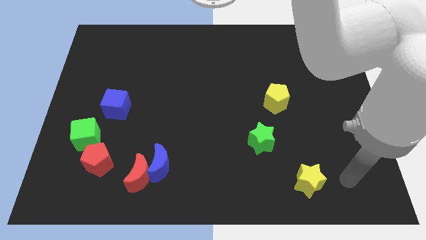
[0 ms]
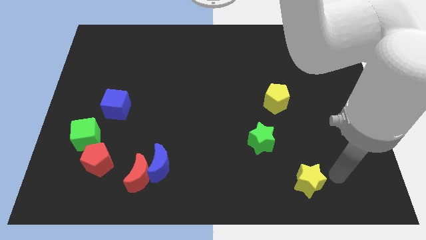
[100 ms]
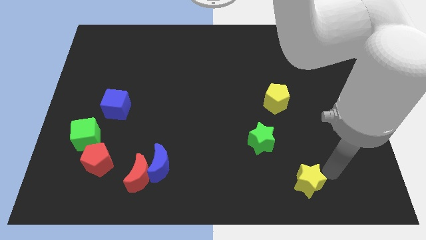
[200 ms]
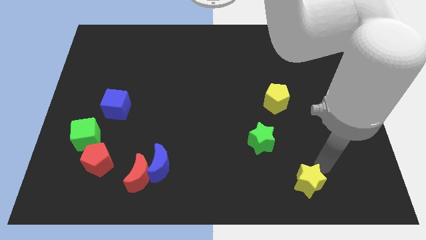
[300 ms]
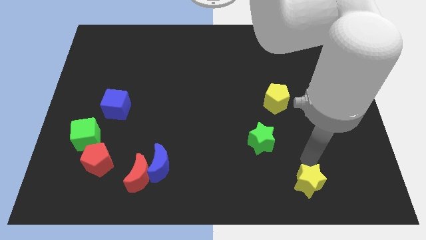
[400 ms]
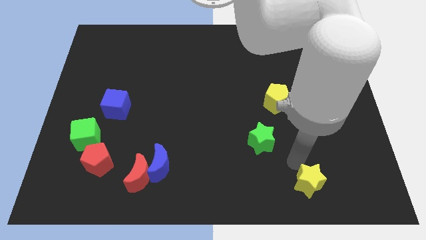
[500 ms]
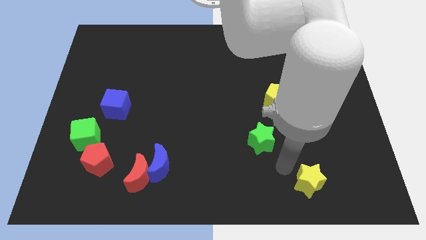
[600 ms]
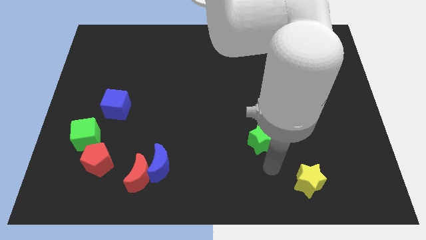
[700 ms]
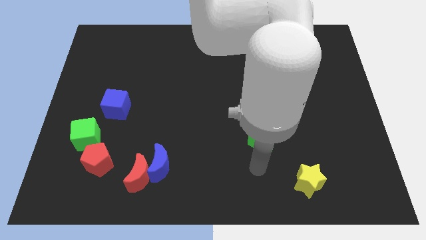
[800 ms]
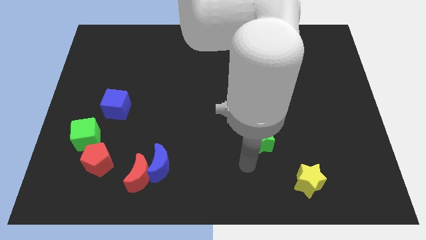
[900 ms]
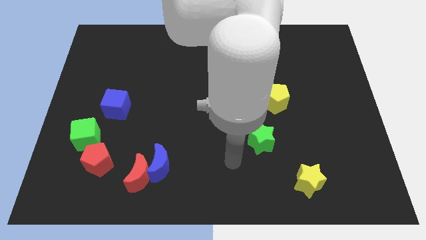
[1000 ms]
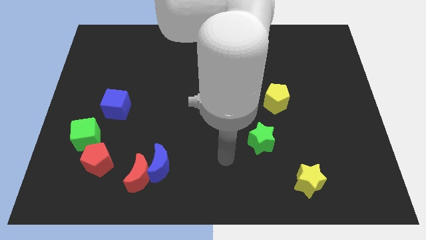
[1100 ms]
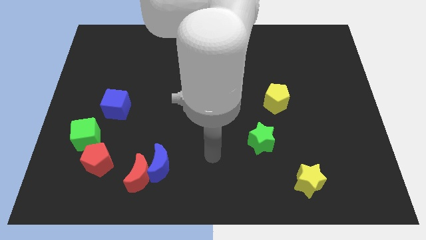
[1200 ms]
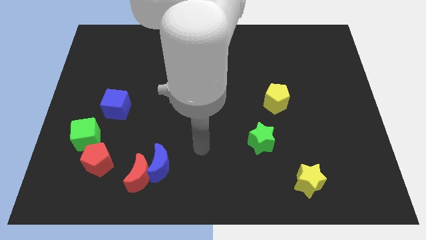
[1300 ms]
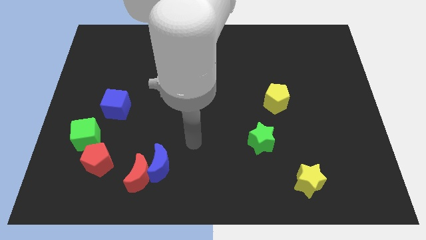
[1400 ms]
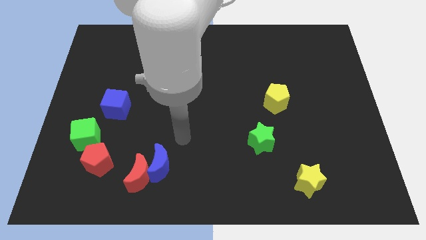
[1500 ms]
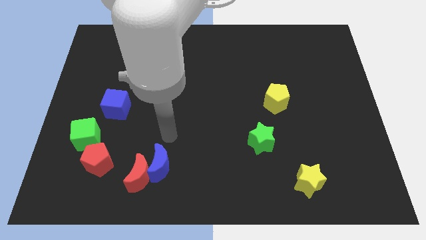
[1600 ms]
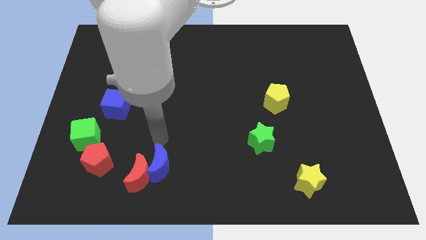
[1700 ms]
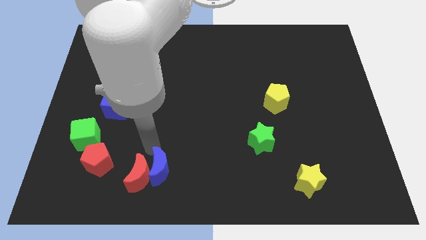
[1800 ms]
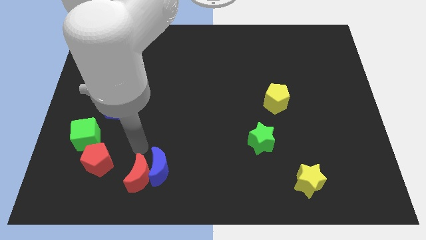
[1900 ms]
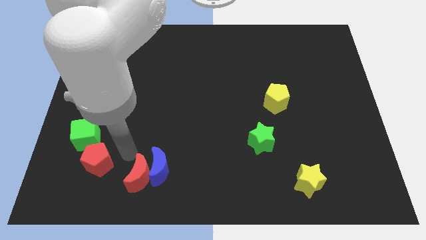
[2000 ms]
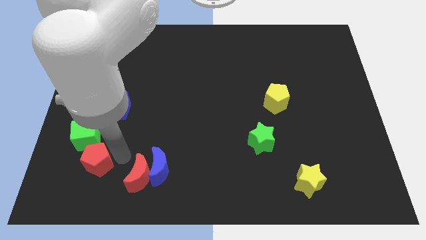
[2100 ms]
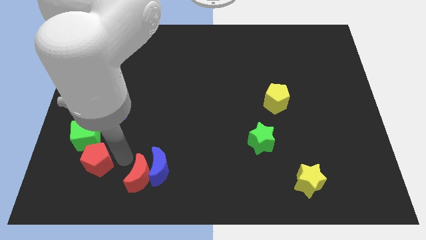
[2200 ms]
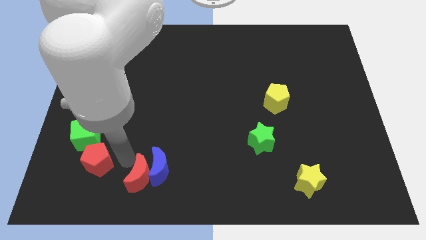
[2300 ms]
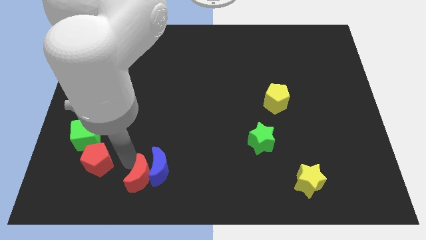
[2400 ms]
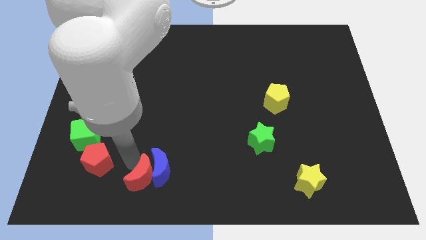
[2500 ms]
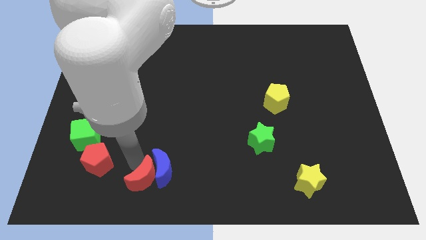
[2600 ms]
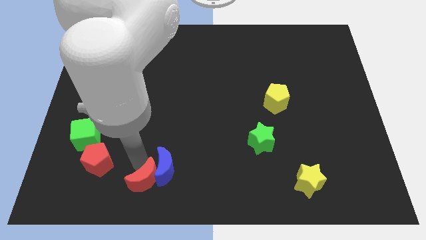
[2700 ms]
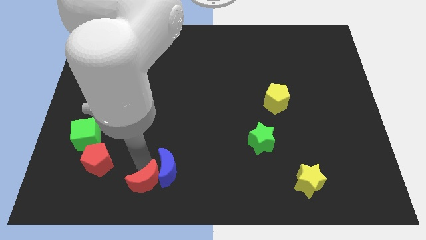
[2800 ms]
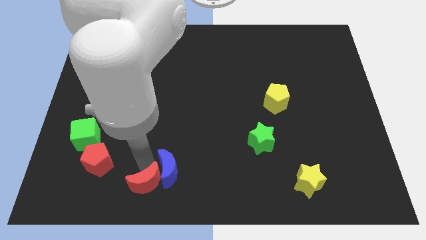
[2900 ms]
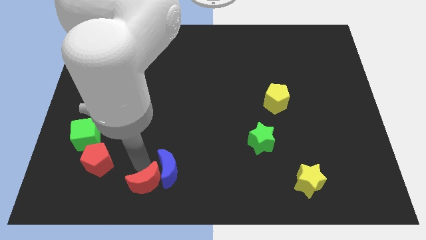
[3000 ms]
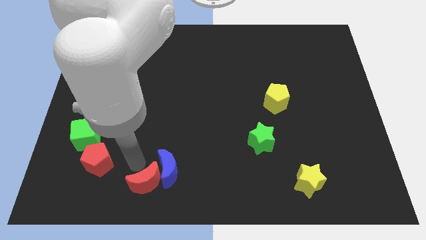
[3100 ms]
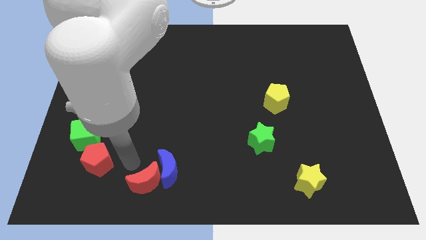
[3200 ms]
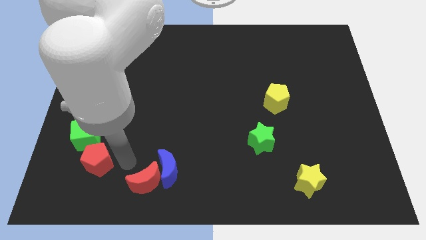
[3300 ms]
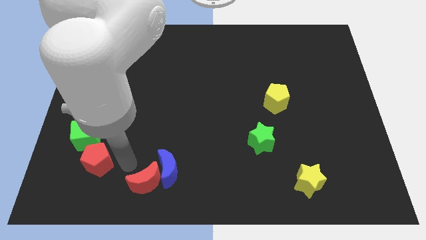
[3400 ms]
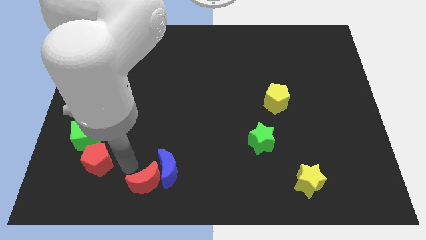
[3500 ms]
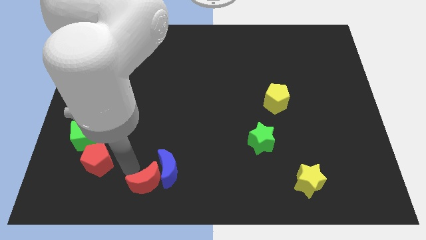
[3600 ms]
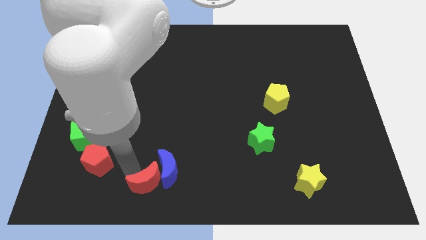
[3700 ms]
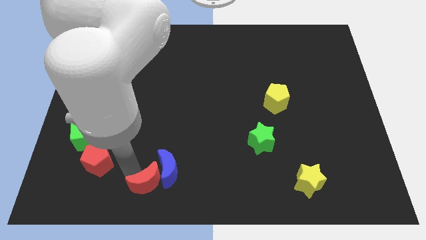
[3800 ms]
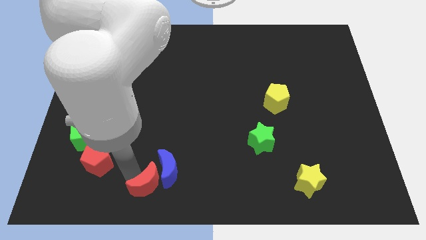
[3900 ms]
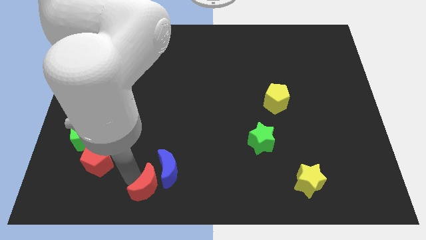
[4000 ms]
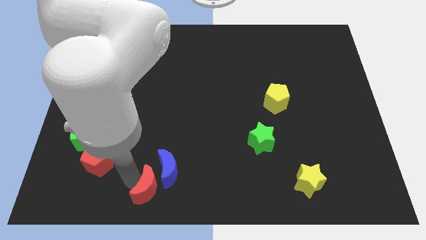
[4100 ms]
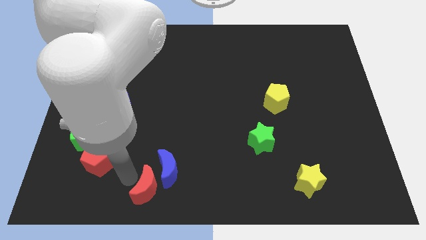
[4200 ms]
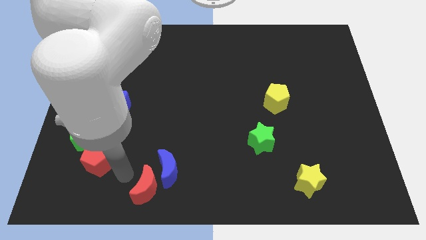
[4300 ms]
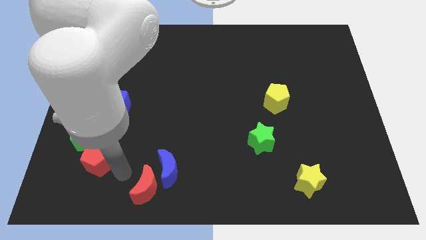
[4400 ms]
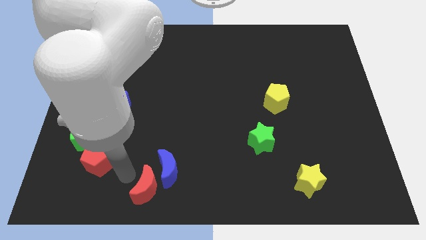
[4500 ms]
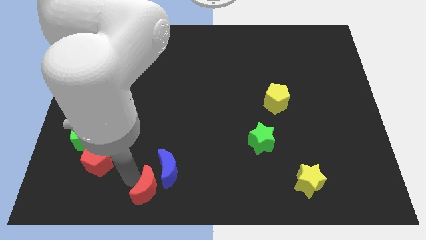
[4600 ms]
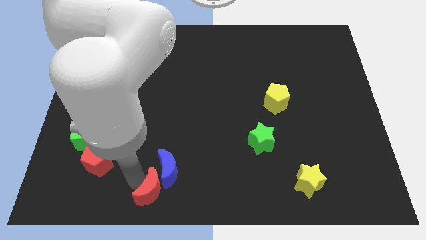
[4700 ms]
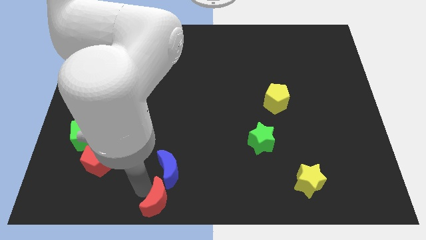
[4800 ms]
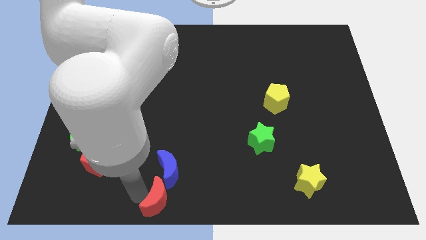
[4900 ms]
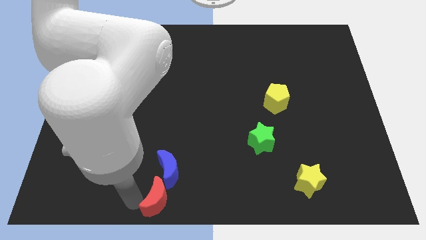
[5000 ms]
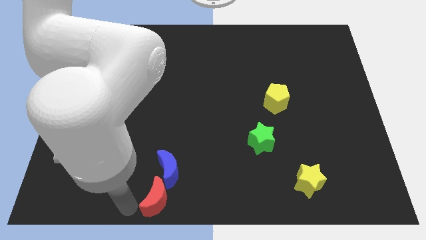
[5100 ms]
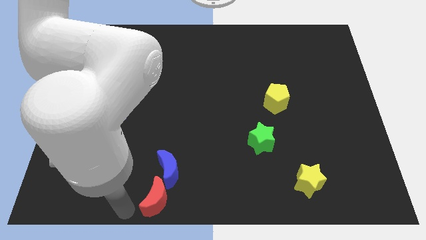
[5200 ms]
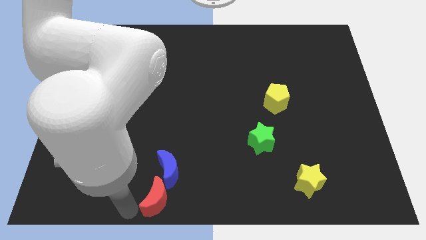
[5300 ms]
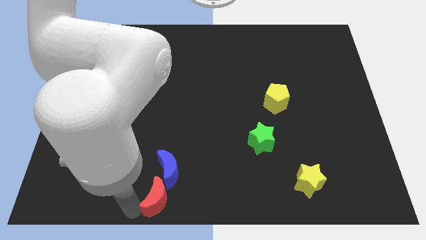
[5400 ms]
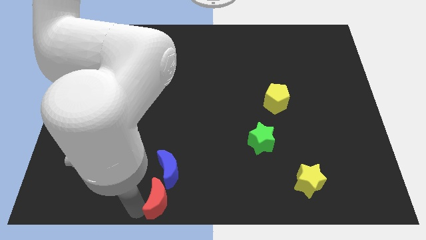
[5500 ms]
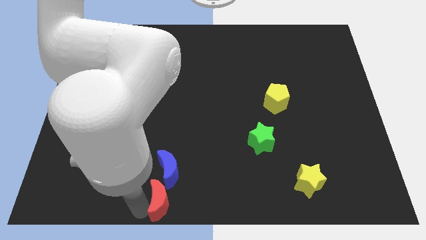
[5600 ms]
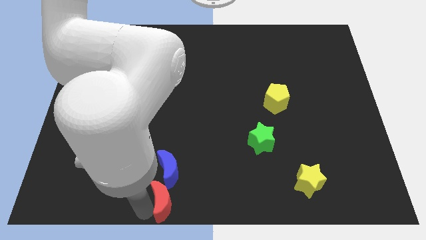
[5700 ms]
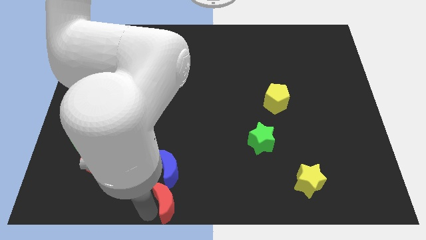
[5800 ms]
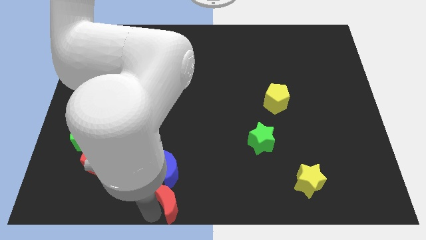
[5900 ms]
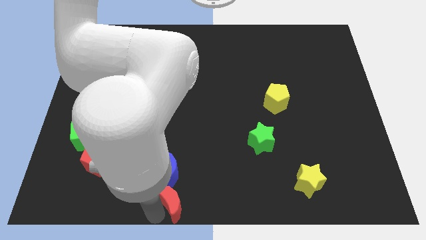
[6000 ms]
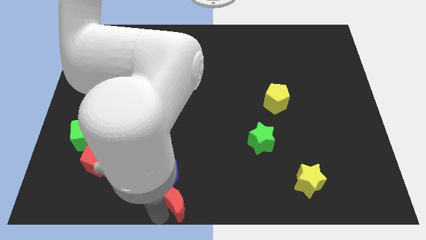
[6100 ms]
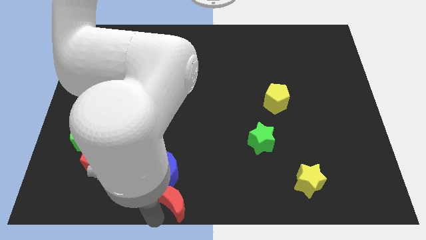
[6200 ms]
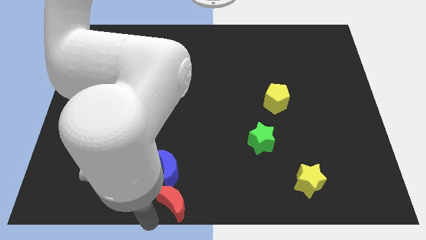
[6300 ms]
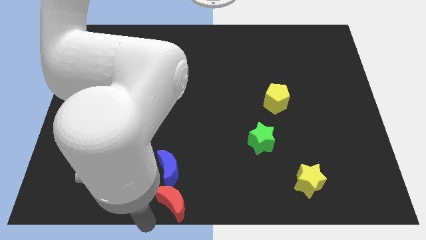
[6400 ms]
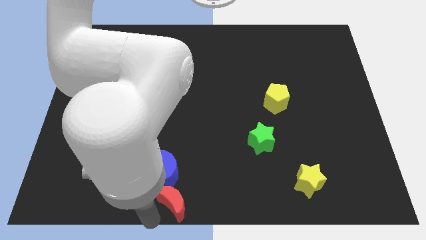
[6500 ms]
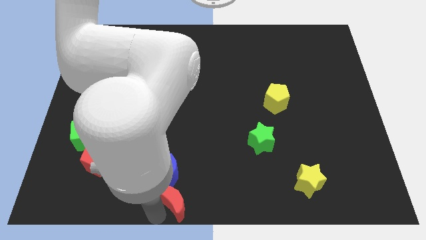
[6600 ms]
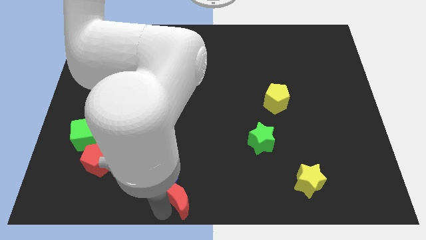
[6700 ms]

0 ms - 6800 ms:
move the red moon slightly right

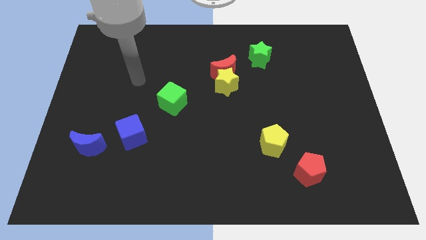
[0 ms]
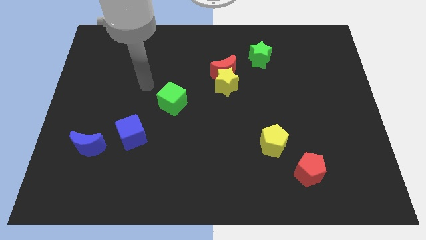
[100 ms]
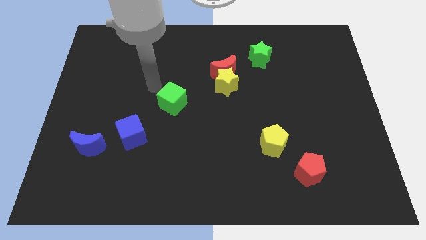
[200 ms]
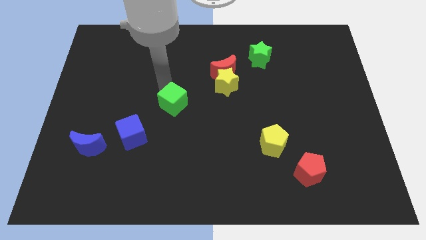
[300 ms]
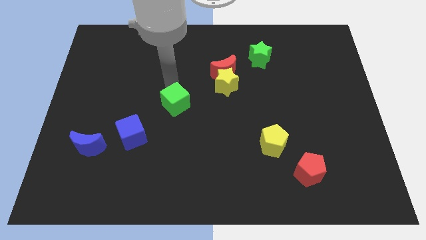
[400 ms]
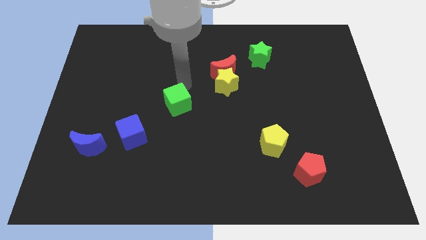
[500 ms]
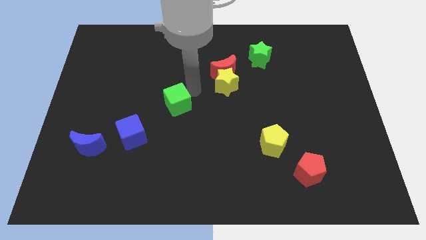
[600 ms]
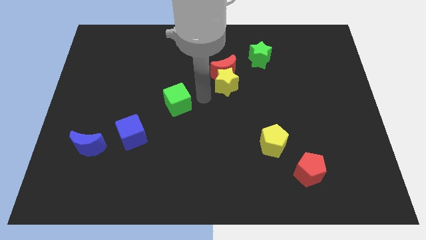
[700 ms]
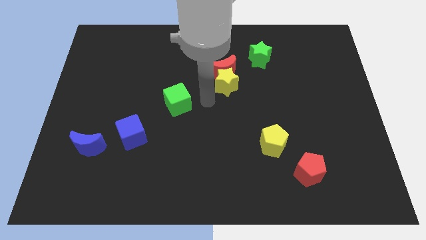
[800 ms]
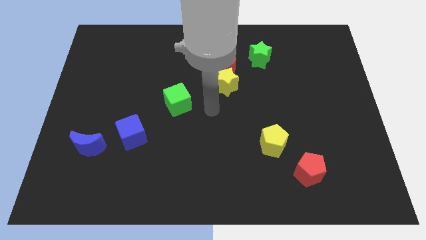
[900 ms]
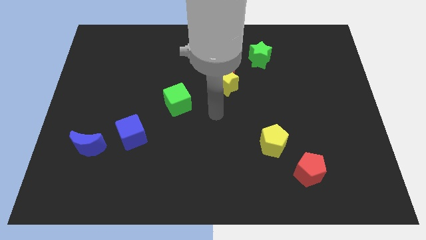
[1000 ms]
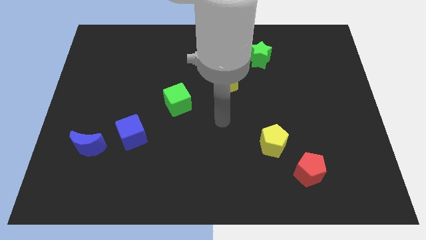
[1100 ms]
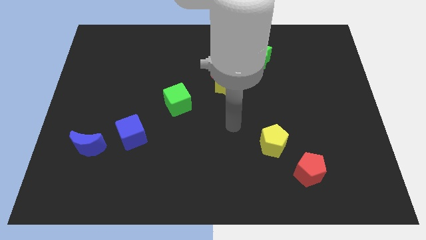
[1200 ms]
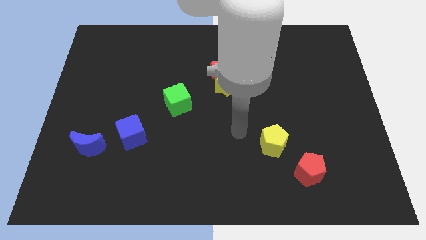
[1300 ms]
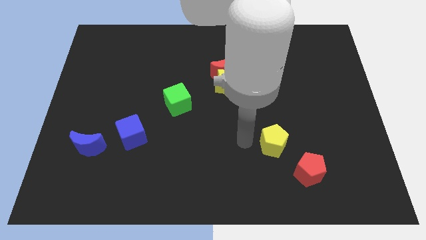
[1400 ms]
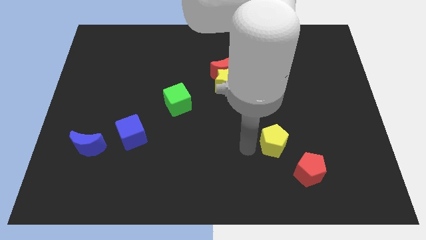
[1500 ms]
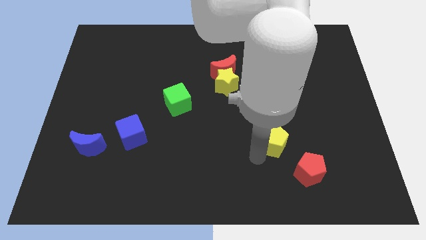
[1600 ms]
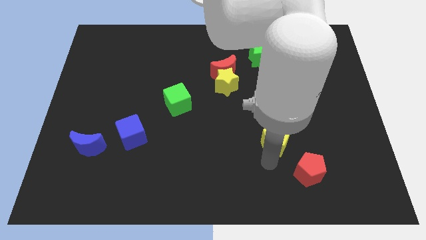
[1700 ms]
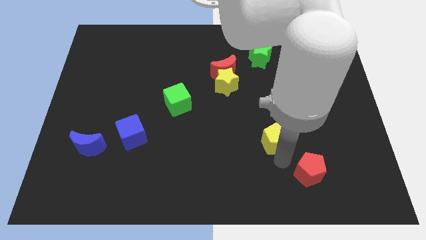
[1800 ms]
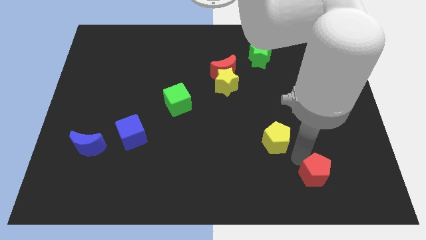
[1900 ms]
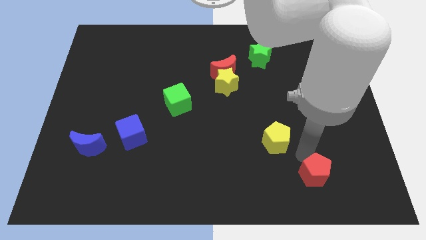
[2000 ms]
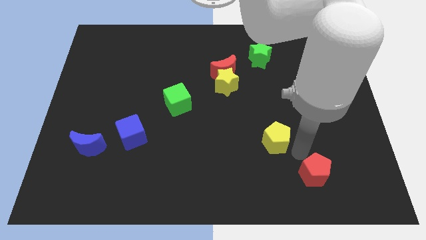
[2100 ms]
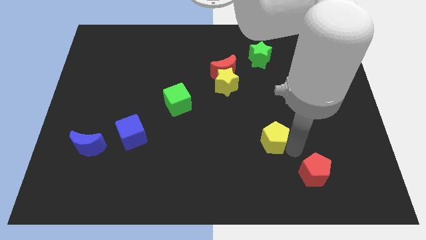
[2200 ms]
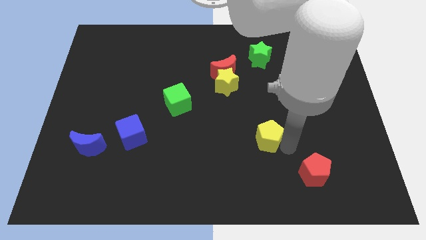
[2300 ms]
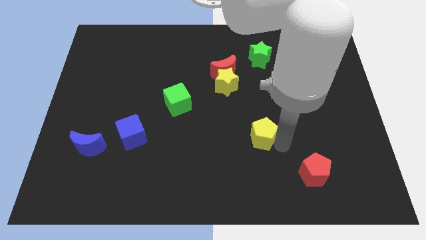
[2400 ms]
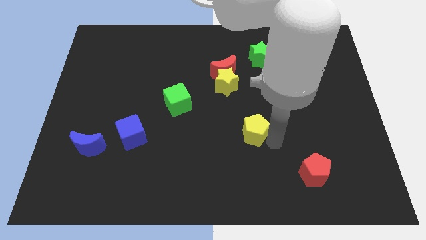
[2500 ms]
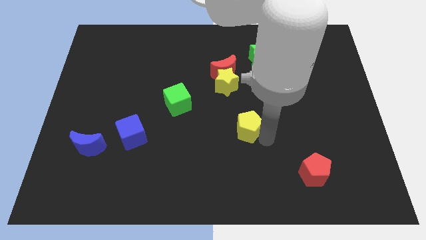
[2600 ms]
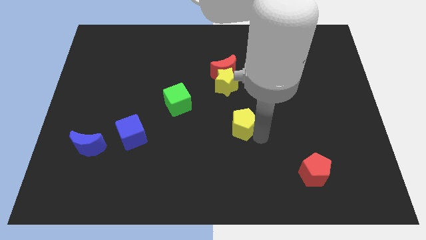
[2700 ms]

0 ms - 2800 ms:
move the yellow pentagon diagonally upwards and to the left slightly
